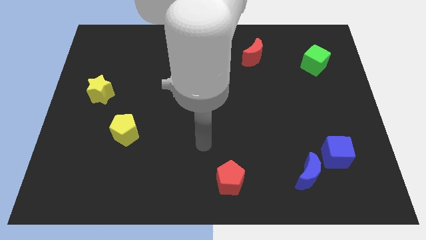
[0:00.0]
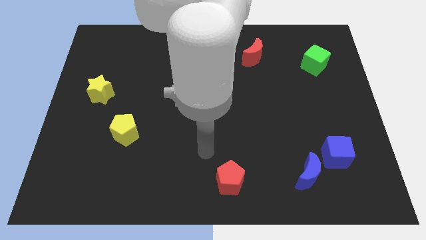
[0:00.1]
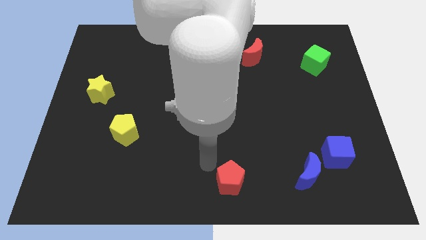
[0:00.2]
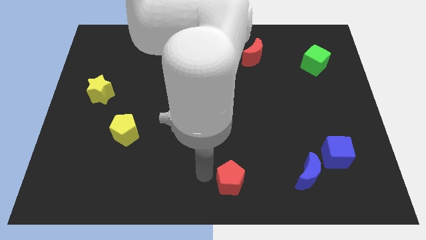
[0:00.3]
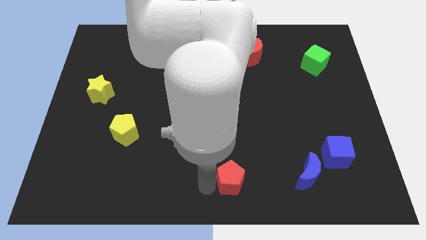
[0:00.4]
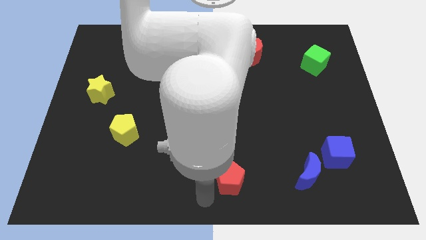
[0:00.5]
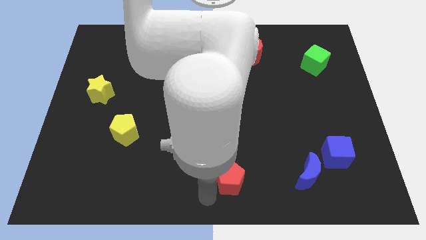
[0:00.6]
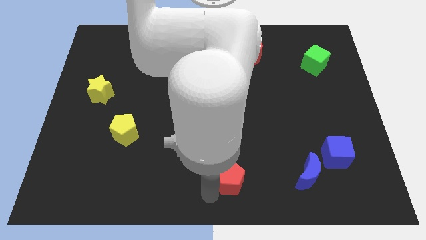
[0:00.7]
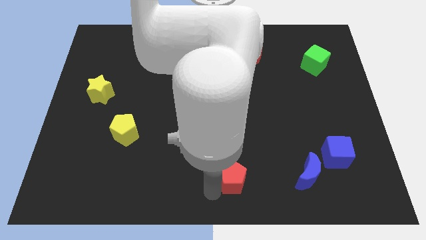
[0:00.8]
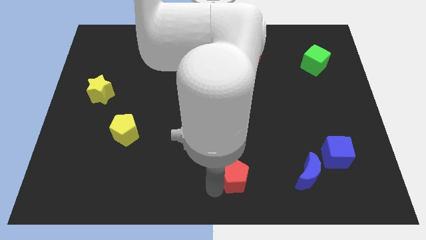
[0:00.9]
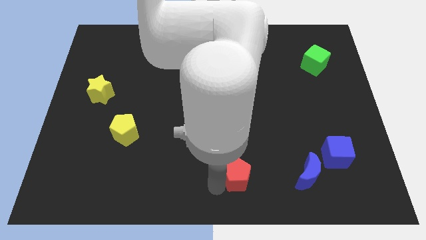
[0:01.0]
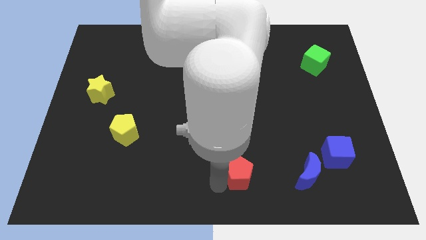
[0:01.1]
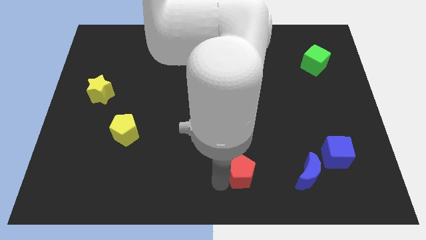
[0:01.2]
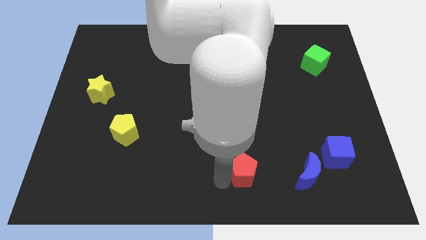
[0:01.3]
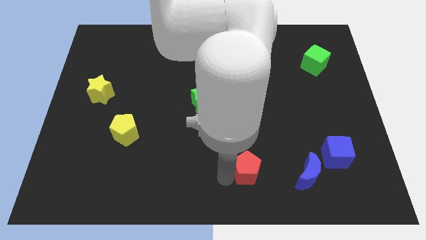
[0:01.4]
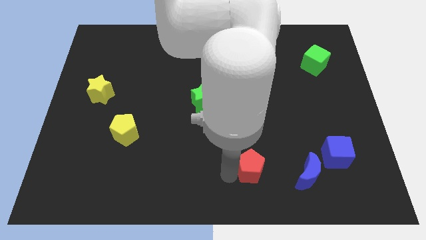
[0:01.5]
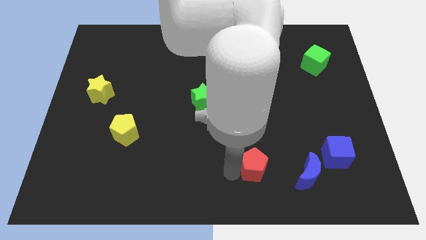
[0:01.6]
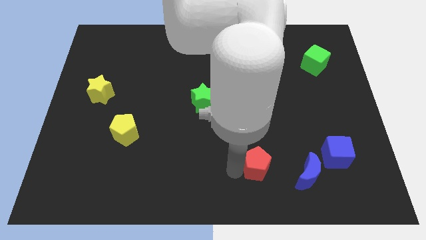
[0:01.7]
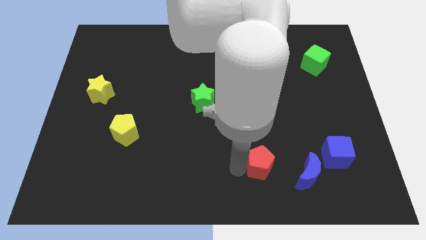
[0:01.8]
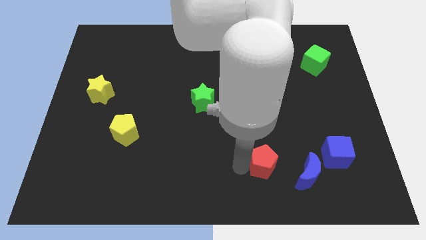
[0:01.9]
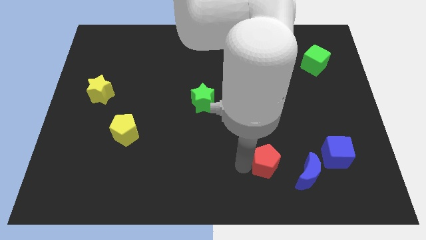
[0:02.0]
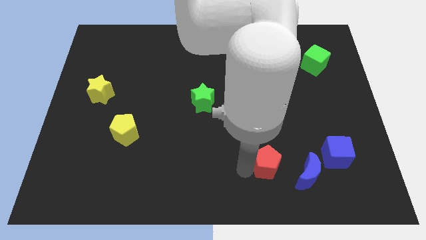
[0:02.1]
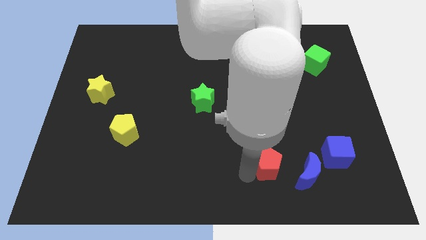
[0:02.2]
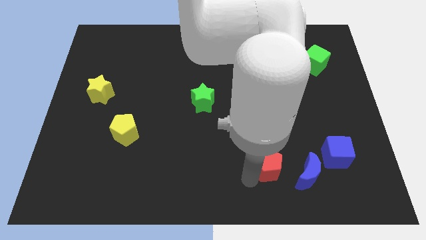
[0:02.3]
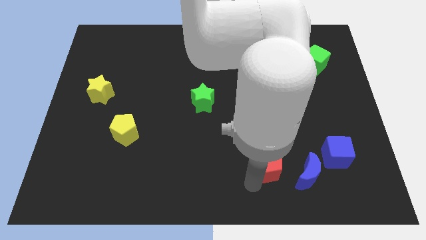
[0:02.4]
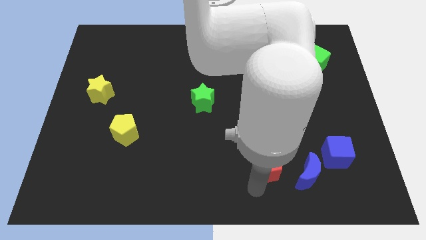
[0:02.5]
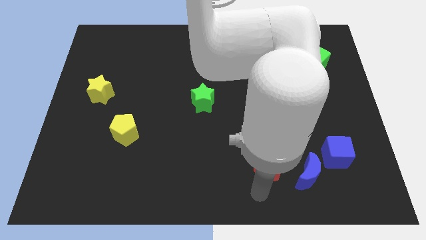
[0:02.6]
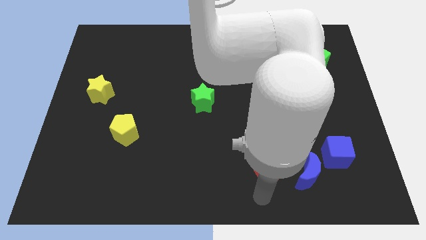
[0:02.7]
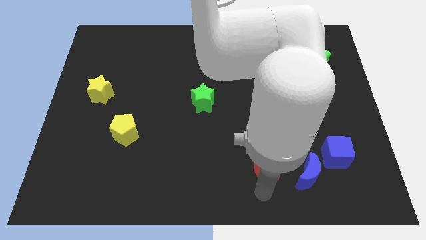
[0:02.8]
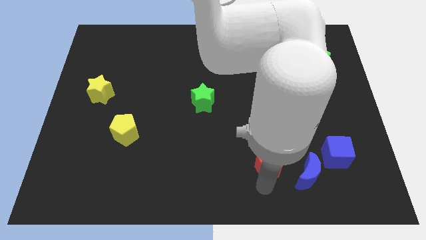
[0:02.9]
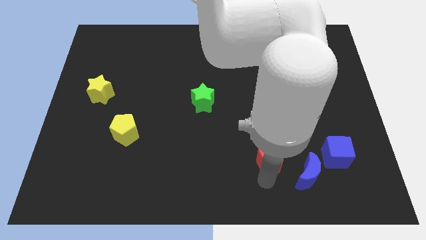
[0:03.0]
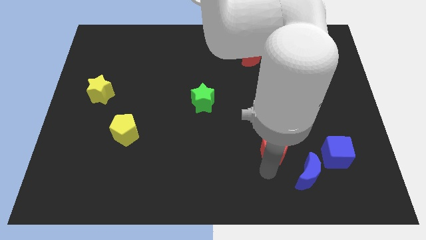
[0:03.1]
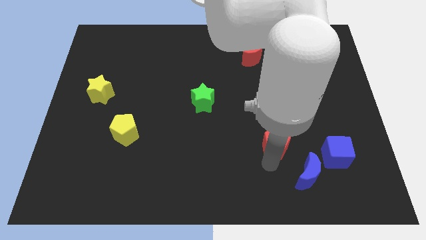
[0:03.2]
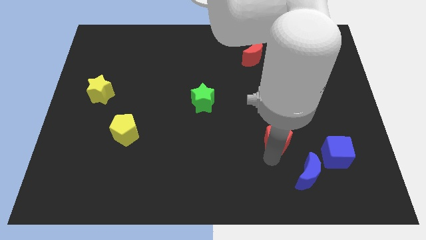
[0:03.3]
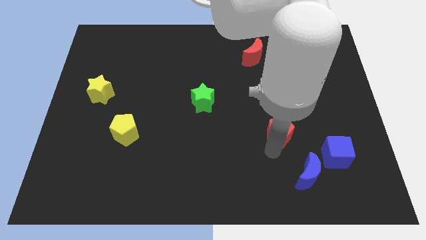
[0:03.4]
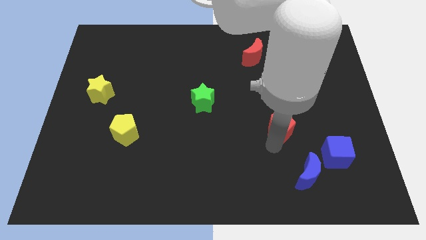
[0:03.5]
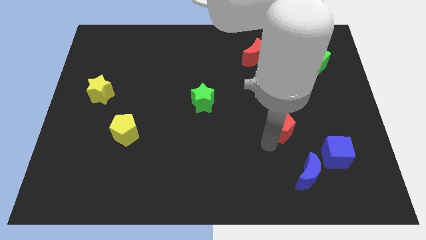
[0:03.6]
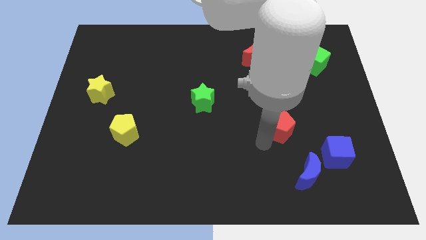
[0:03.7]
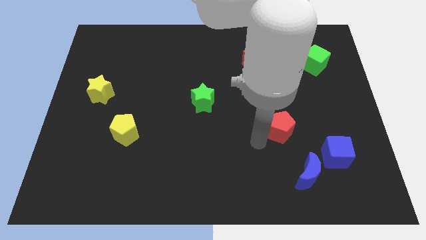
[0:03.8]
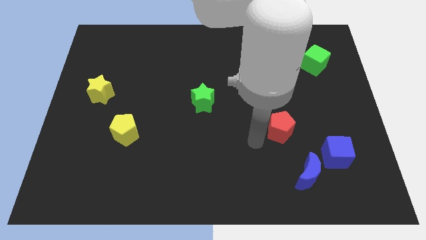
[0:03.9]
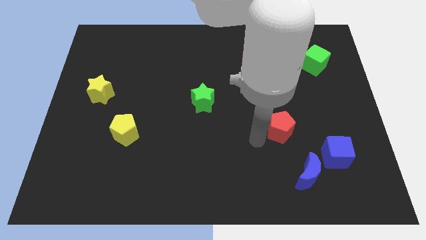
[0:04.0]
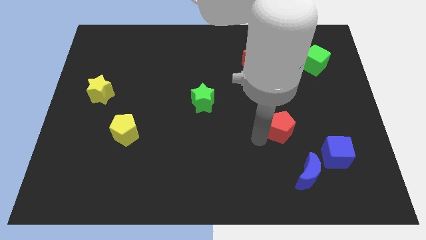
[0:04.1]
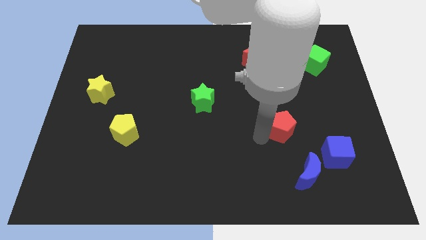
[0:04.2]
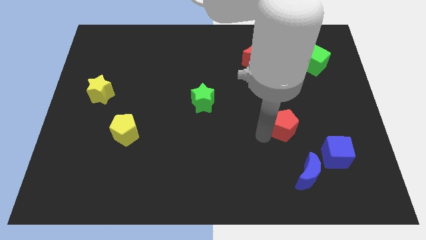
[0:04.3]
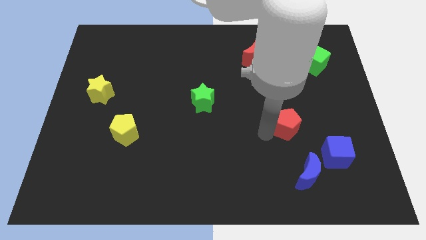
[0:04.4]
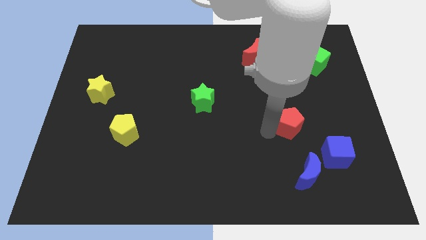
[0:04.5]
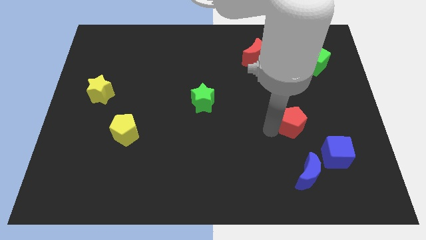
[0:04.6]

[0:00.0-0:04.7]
slide the red pentagon up and then right

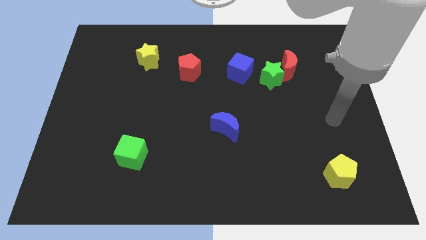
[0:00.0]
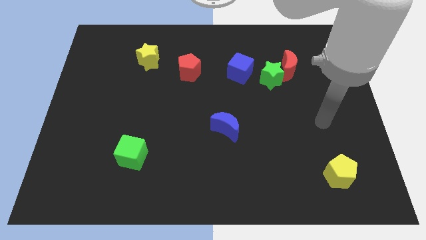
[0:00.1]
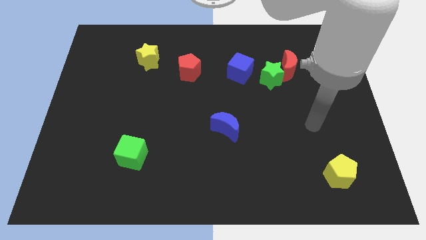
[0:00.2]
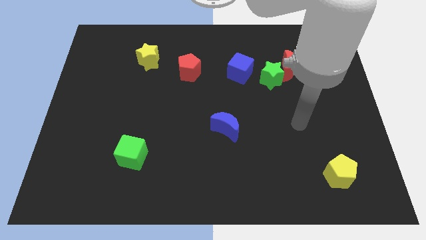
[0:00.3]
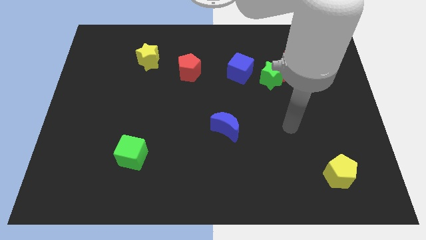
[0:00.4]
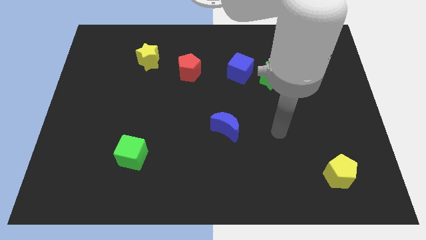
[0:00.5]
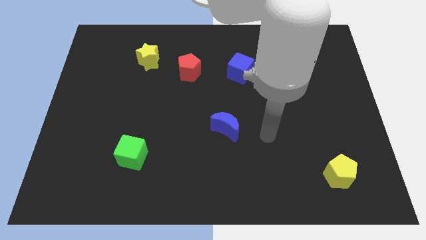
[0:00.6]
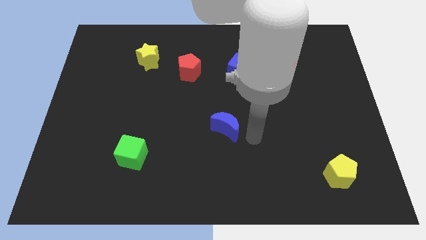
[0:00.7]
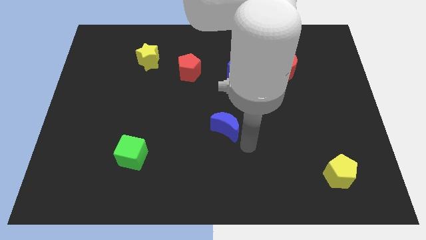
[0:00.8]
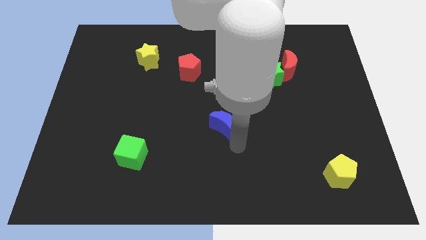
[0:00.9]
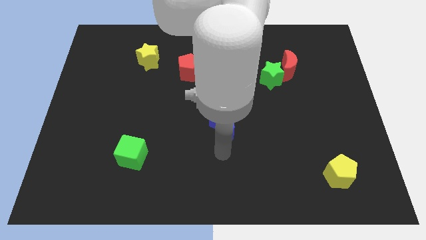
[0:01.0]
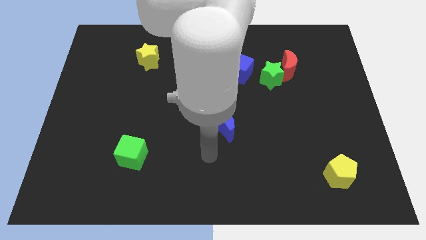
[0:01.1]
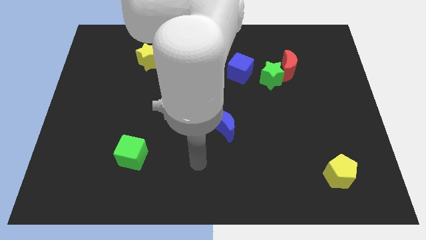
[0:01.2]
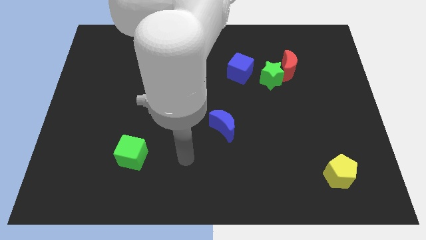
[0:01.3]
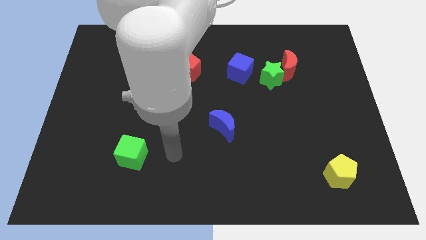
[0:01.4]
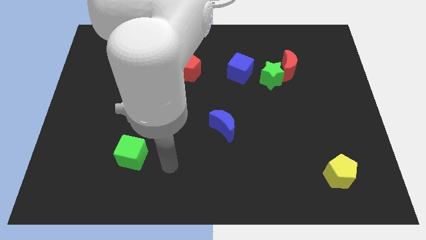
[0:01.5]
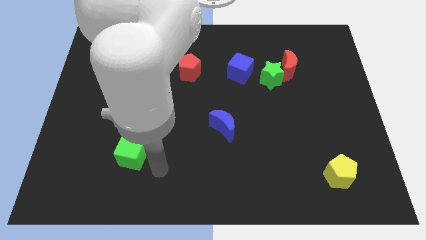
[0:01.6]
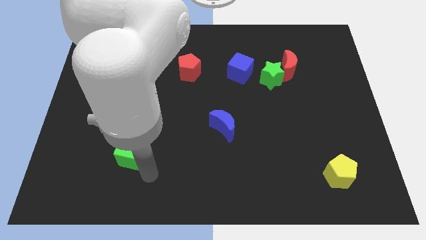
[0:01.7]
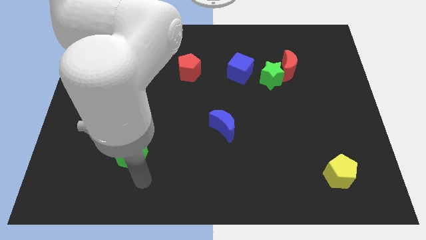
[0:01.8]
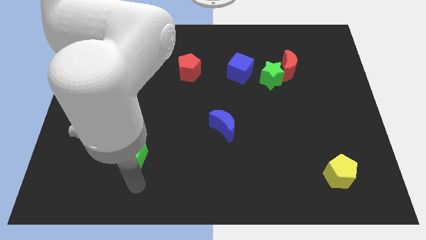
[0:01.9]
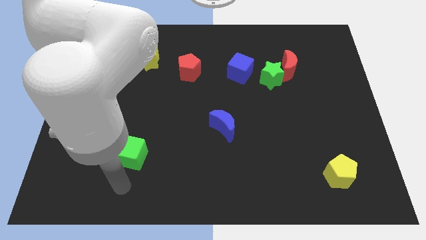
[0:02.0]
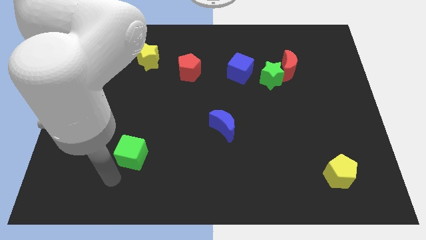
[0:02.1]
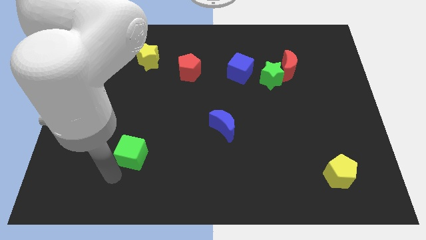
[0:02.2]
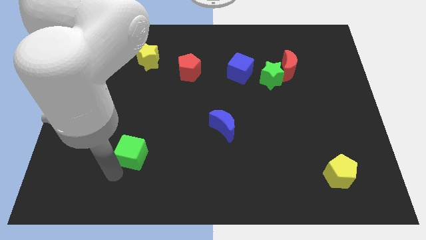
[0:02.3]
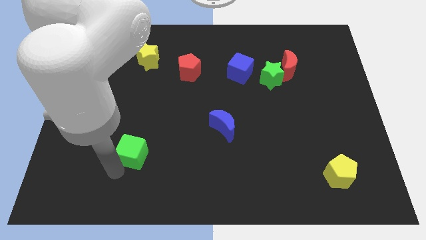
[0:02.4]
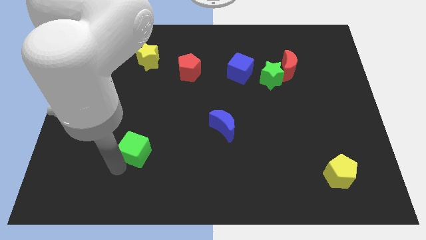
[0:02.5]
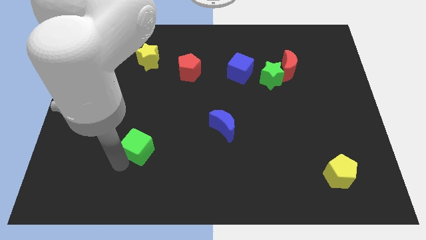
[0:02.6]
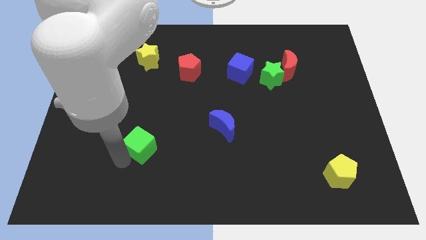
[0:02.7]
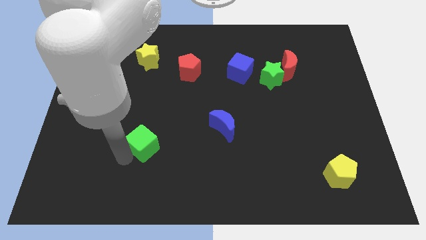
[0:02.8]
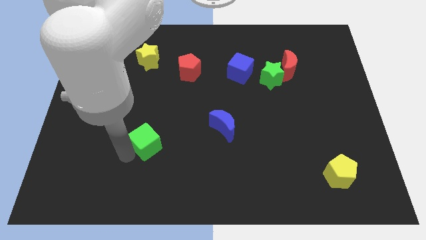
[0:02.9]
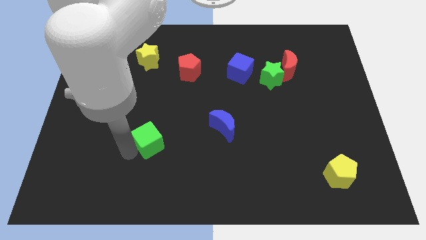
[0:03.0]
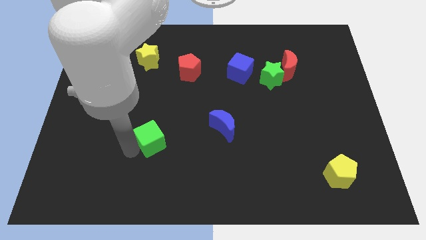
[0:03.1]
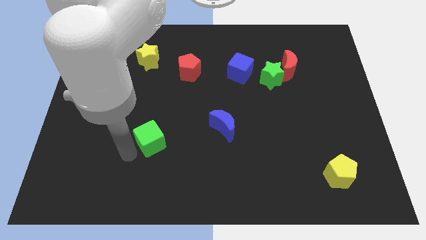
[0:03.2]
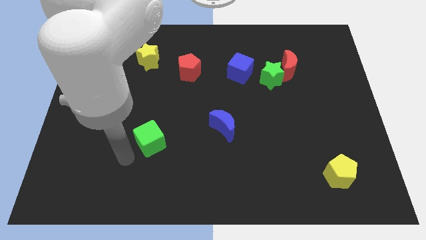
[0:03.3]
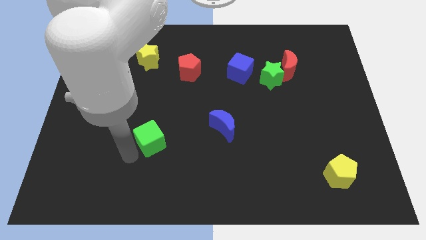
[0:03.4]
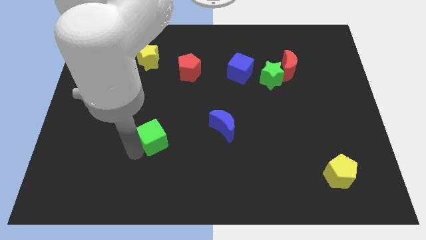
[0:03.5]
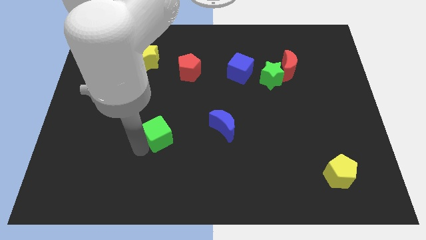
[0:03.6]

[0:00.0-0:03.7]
move the green cube up and to the right somewhat

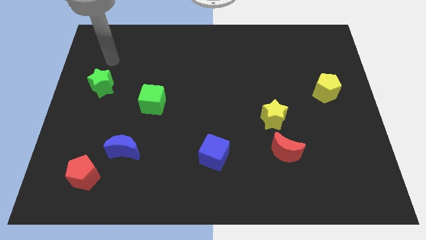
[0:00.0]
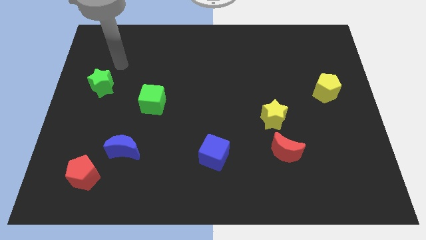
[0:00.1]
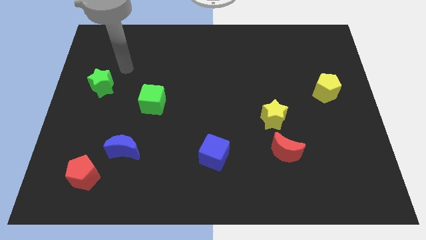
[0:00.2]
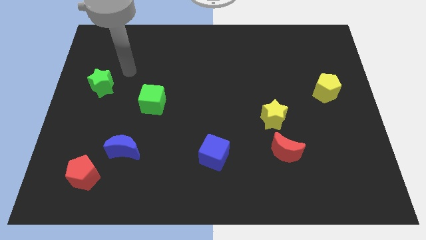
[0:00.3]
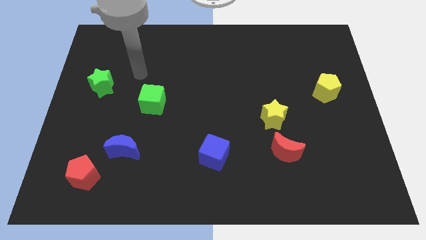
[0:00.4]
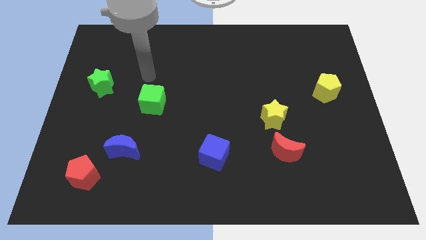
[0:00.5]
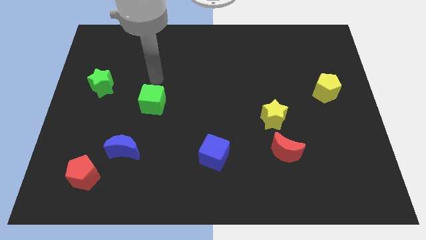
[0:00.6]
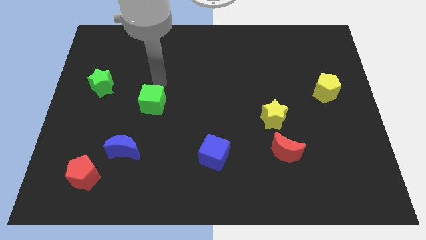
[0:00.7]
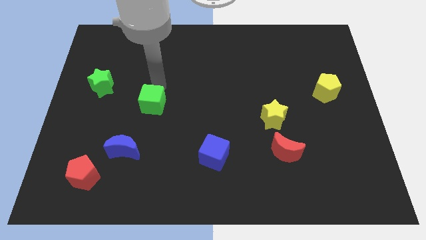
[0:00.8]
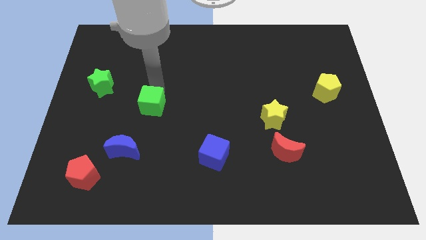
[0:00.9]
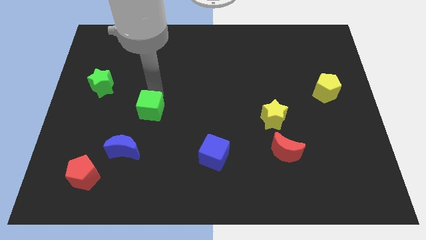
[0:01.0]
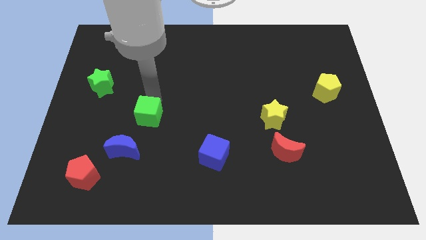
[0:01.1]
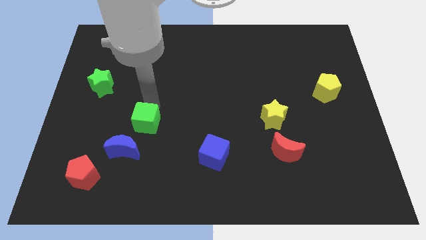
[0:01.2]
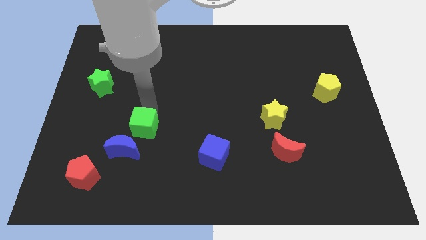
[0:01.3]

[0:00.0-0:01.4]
slightly move the green cube down
